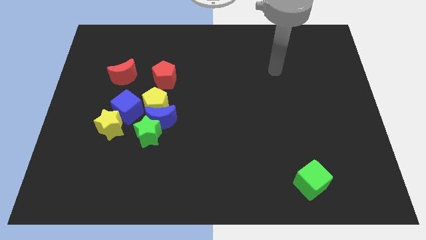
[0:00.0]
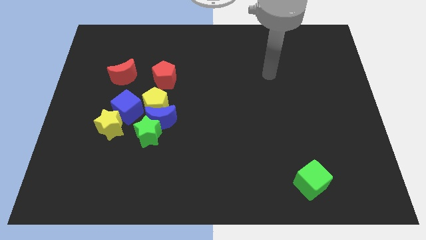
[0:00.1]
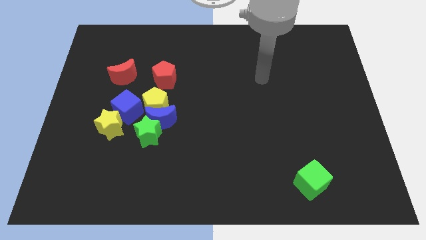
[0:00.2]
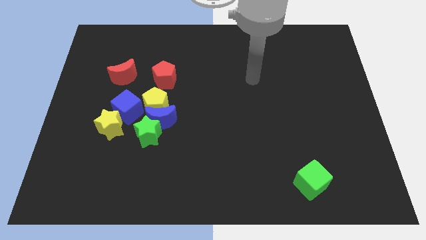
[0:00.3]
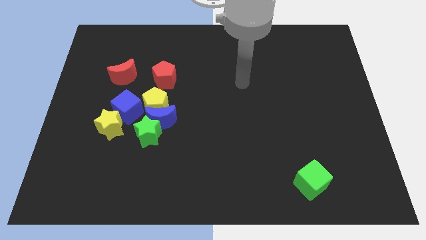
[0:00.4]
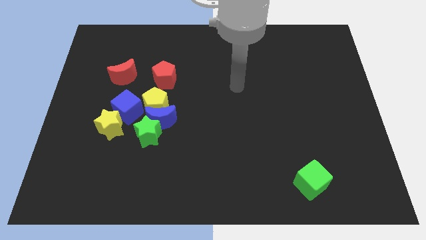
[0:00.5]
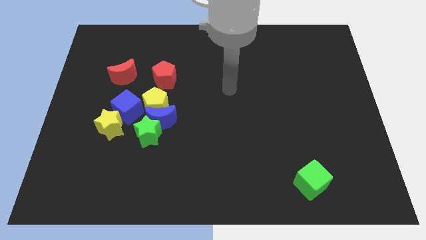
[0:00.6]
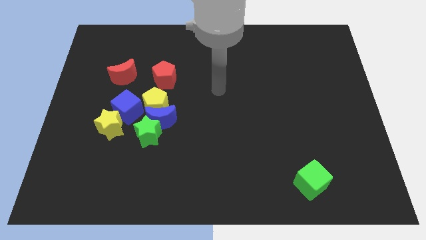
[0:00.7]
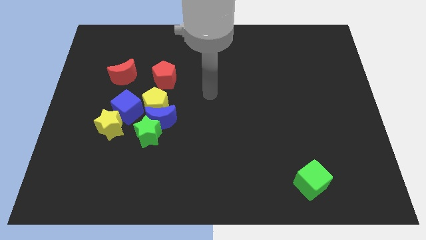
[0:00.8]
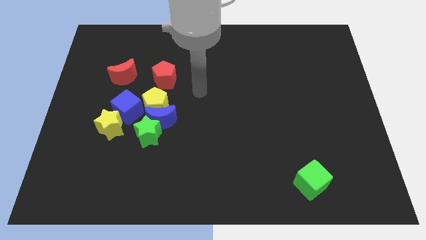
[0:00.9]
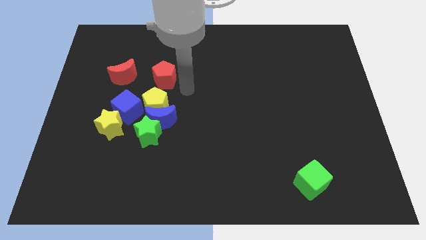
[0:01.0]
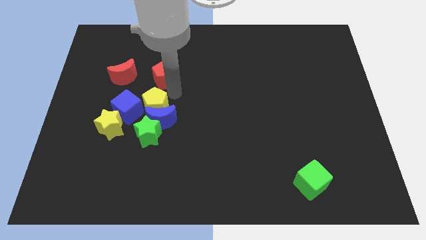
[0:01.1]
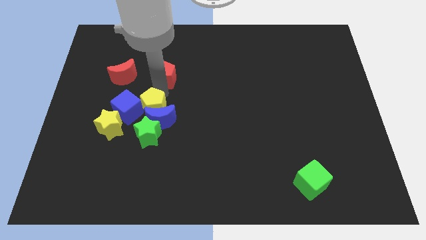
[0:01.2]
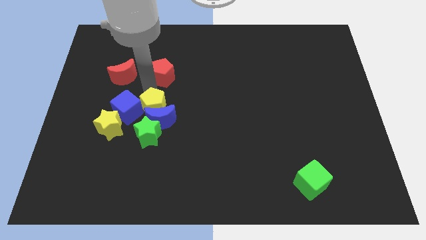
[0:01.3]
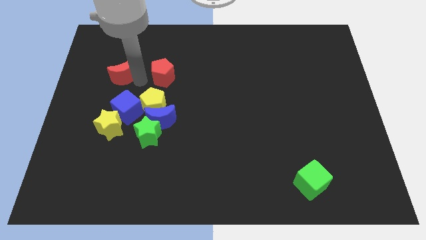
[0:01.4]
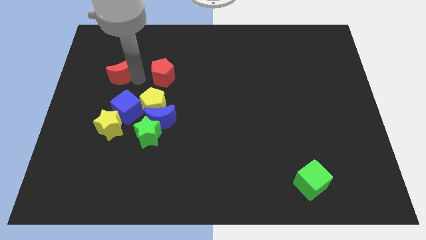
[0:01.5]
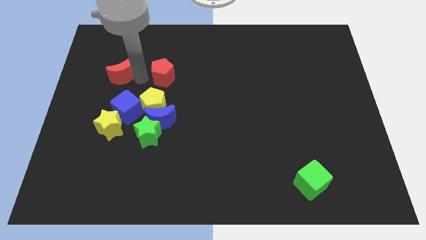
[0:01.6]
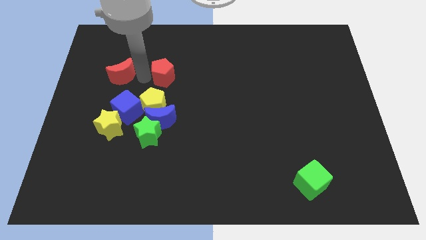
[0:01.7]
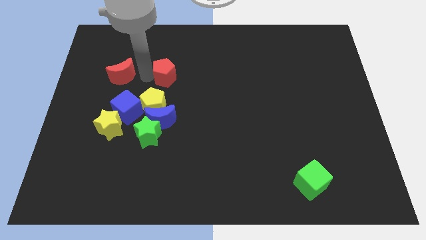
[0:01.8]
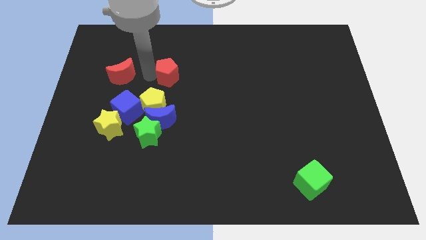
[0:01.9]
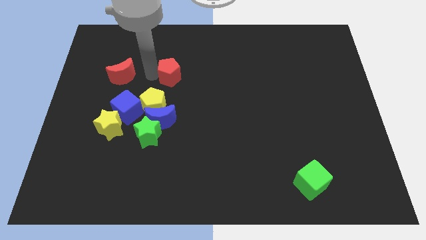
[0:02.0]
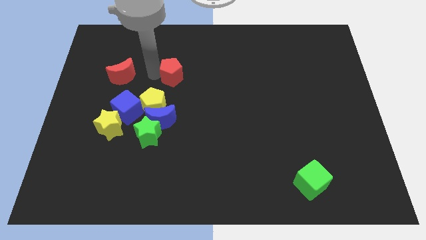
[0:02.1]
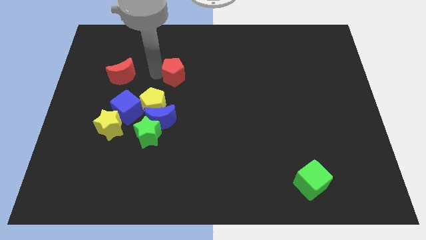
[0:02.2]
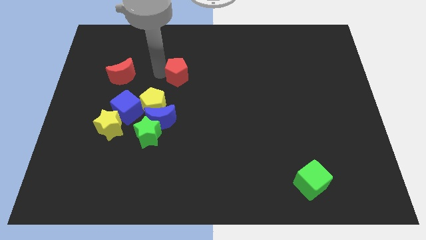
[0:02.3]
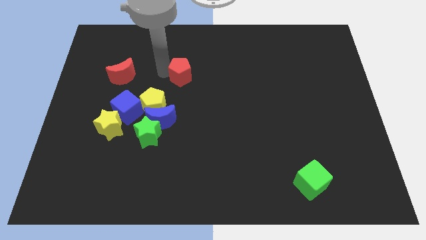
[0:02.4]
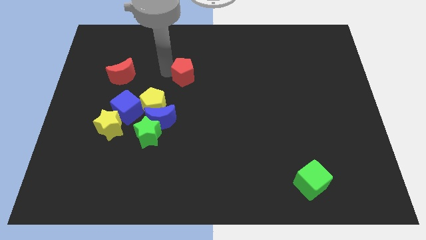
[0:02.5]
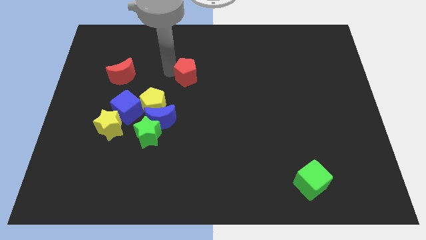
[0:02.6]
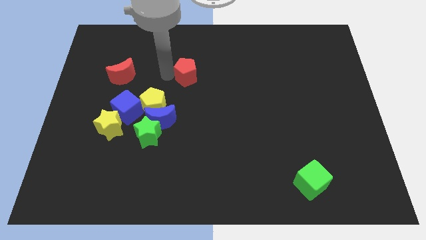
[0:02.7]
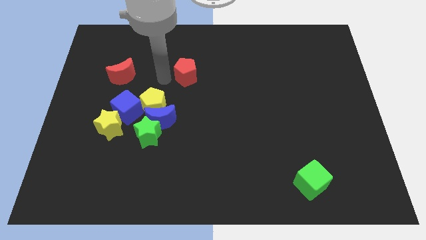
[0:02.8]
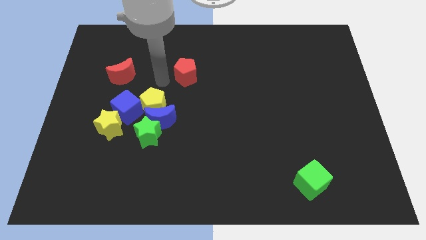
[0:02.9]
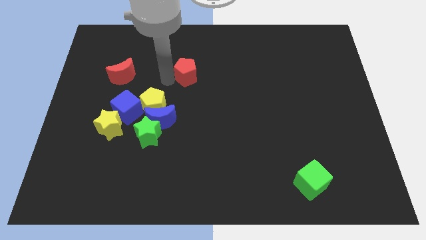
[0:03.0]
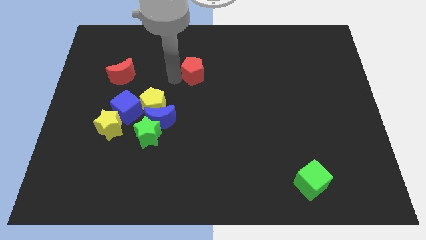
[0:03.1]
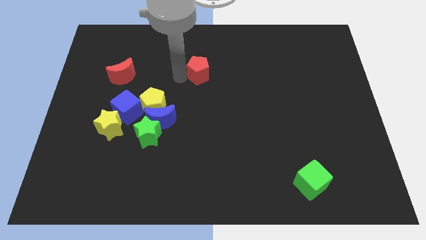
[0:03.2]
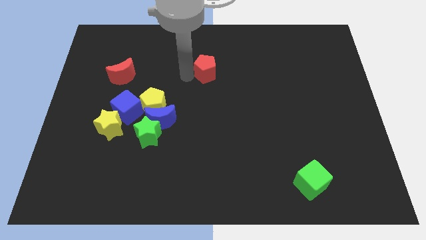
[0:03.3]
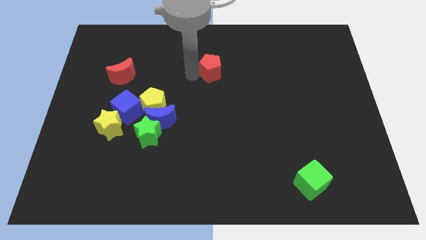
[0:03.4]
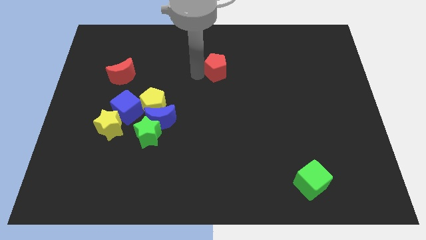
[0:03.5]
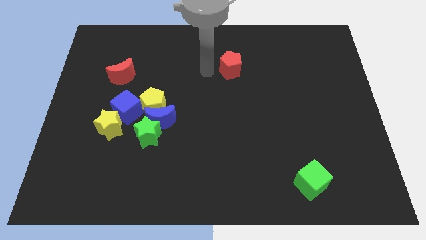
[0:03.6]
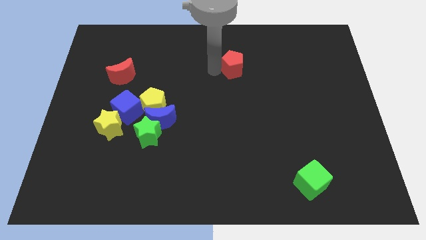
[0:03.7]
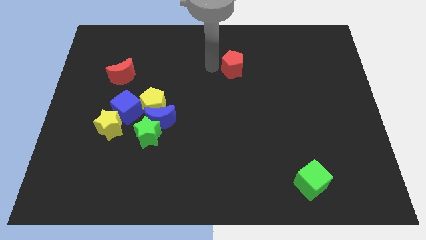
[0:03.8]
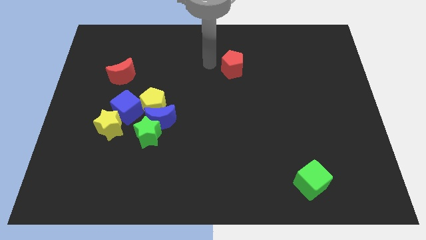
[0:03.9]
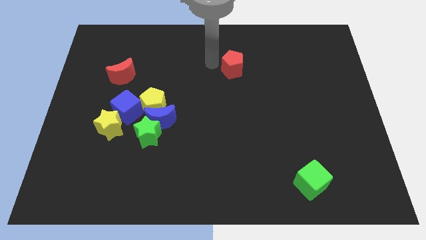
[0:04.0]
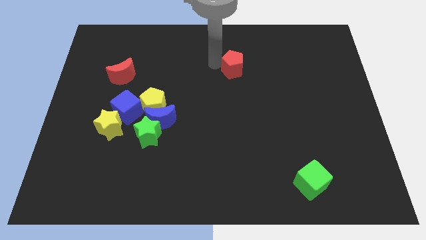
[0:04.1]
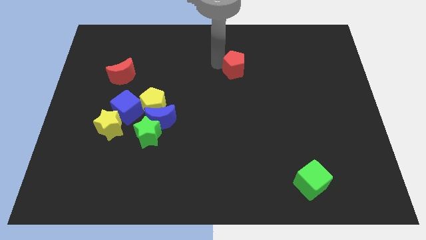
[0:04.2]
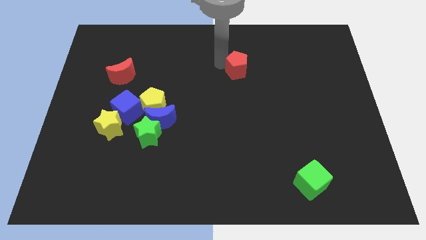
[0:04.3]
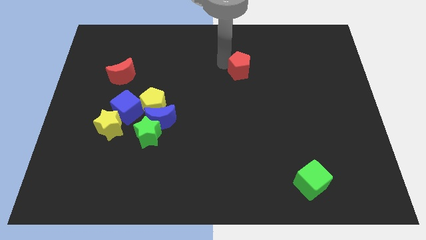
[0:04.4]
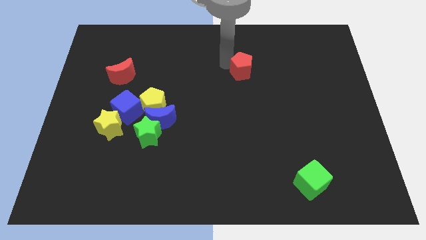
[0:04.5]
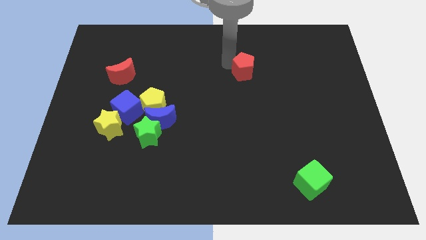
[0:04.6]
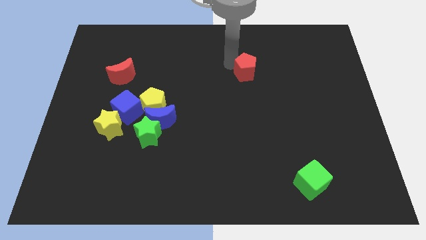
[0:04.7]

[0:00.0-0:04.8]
push the red pentagon right

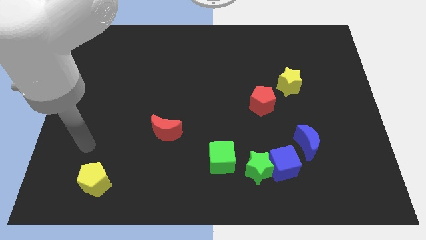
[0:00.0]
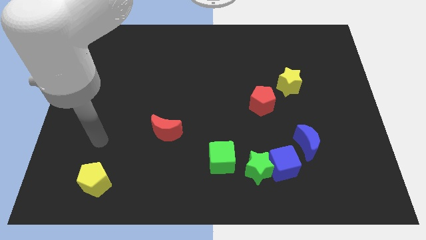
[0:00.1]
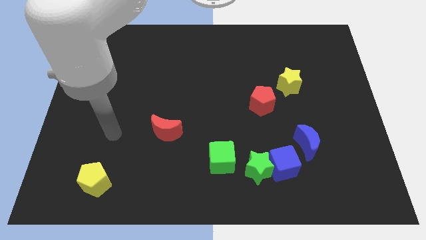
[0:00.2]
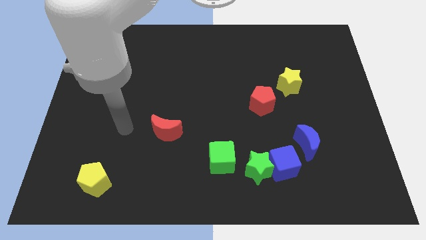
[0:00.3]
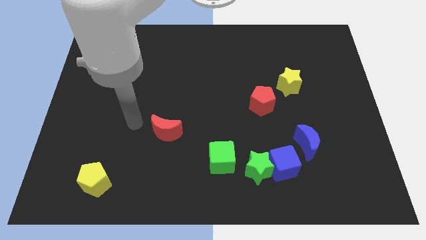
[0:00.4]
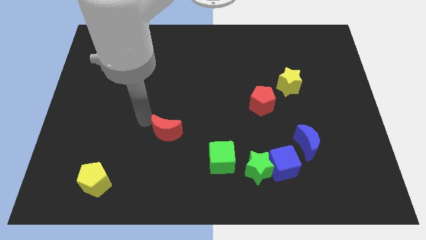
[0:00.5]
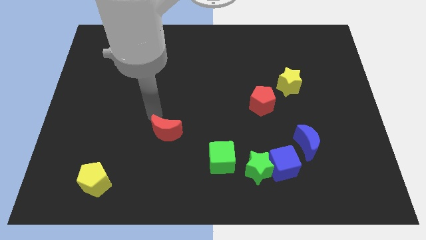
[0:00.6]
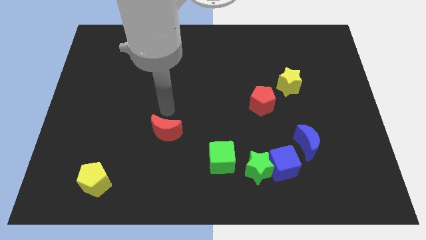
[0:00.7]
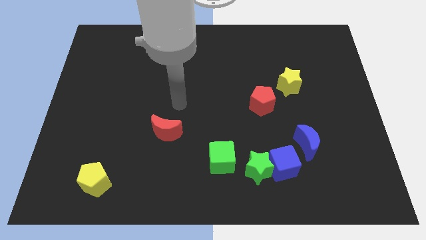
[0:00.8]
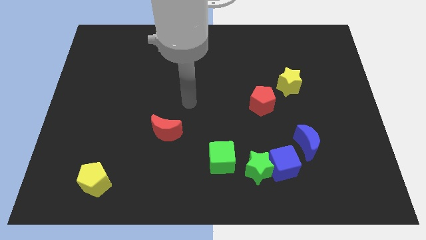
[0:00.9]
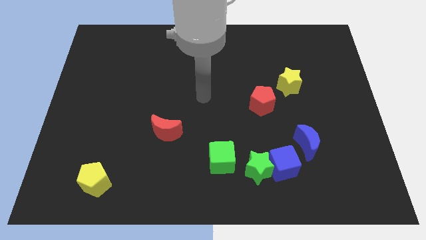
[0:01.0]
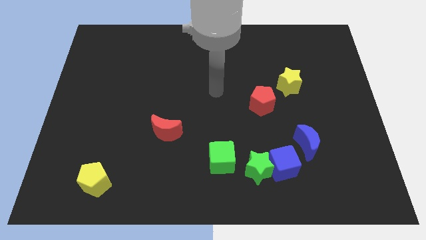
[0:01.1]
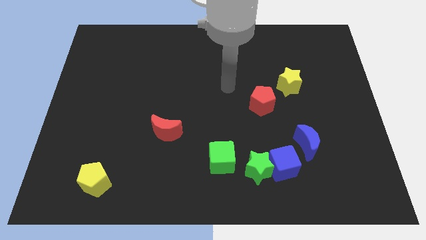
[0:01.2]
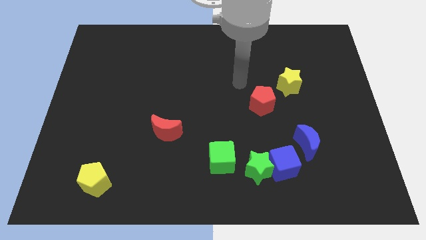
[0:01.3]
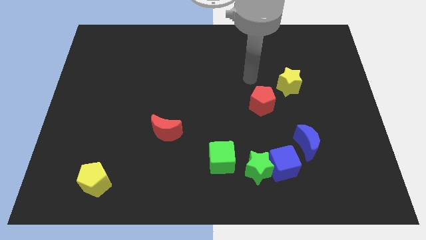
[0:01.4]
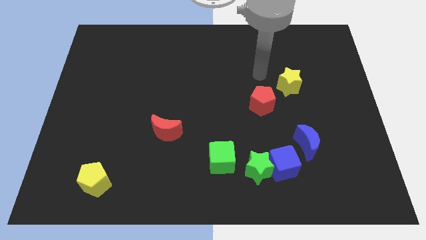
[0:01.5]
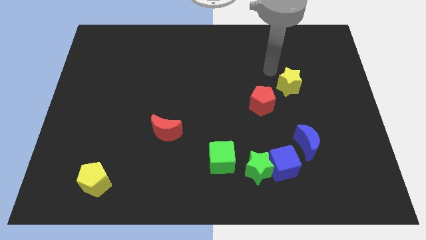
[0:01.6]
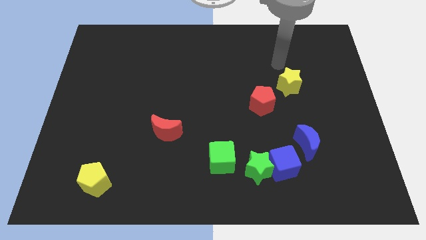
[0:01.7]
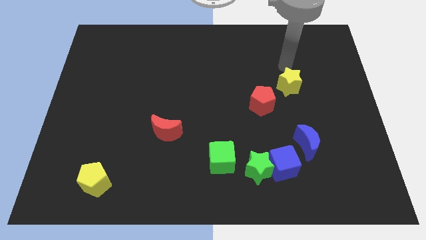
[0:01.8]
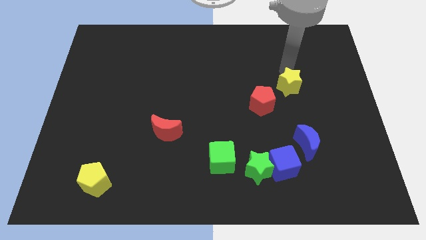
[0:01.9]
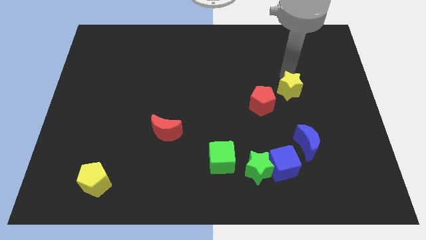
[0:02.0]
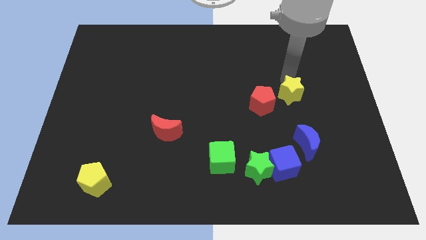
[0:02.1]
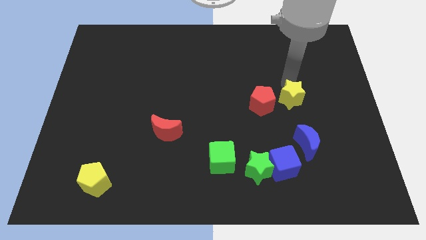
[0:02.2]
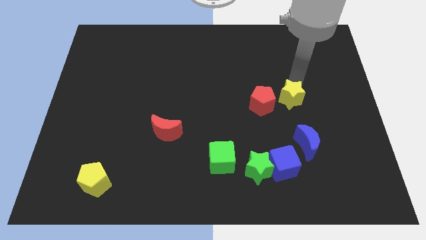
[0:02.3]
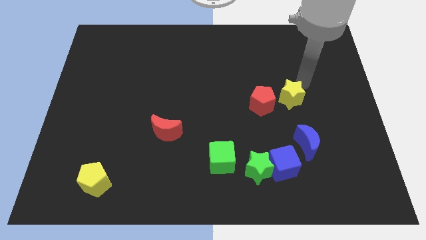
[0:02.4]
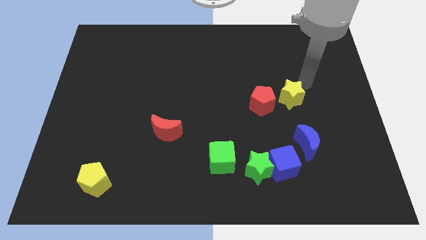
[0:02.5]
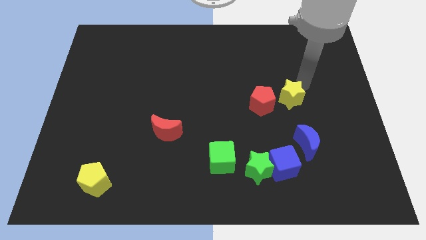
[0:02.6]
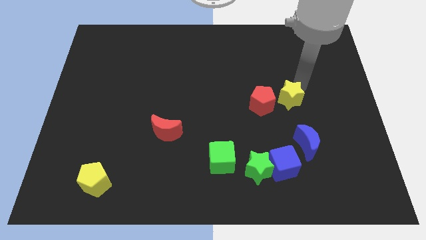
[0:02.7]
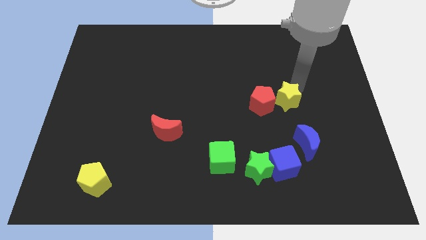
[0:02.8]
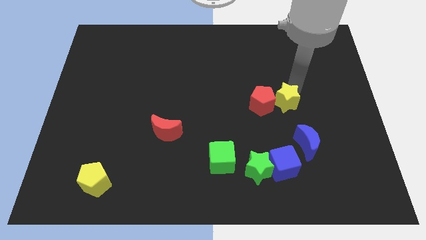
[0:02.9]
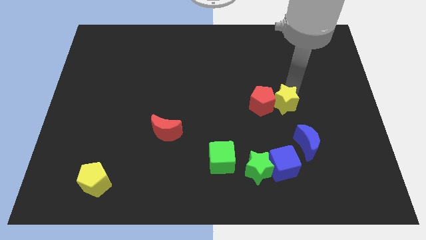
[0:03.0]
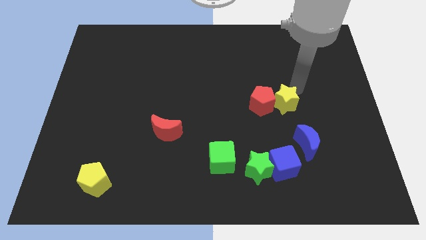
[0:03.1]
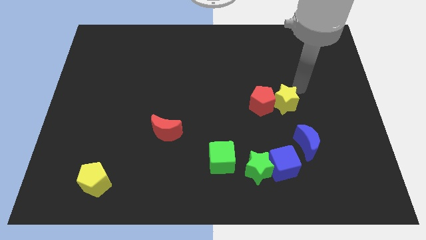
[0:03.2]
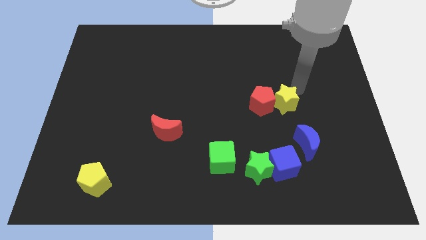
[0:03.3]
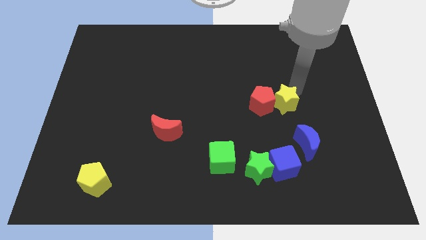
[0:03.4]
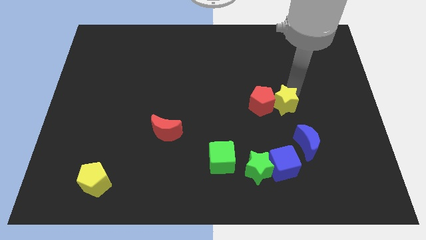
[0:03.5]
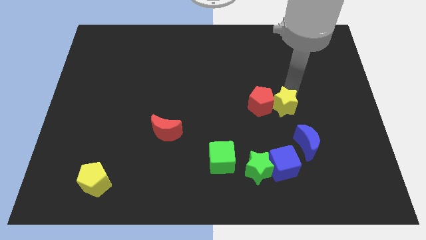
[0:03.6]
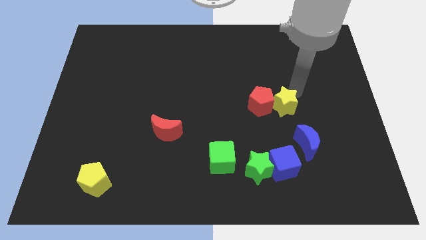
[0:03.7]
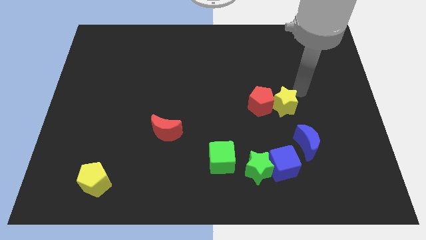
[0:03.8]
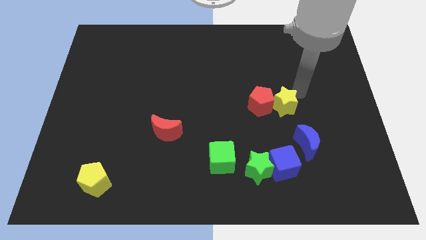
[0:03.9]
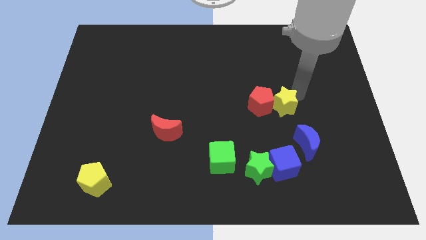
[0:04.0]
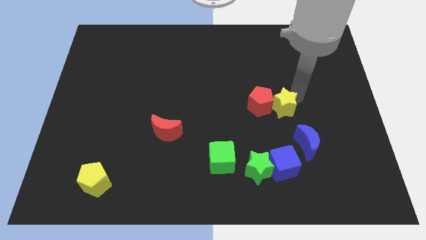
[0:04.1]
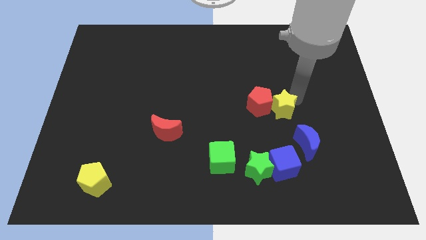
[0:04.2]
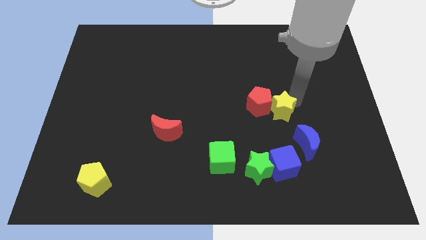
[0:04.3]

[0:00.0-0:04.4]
push the yellow star down and left diagonally a bit
